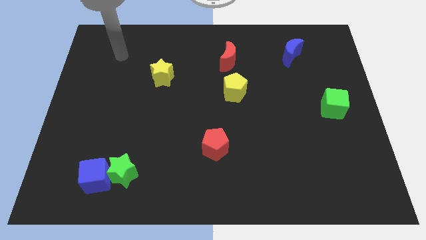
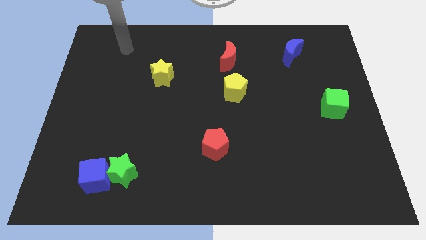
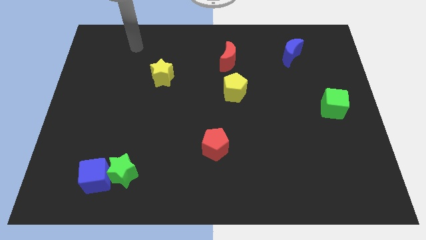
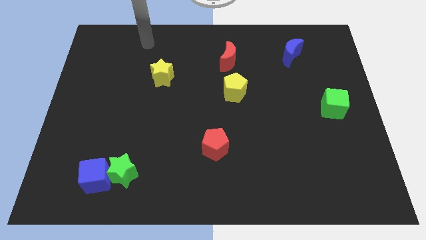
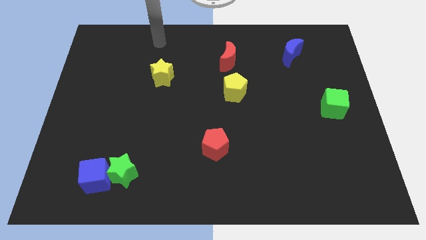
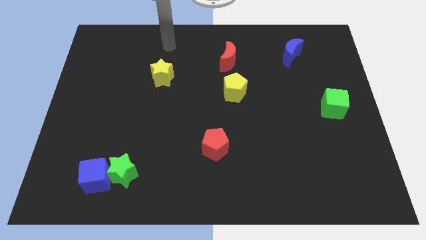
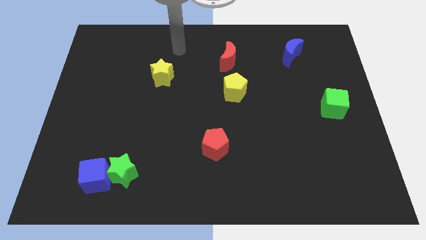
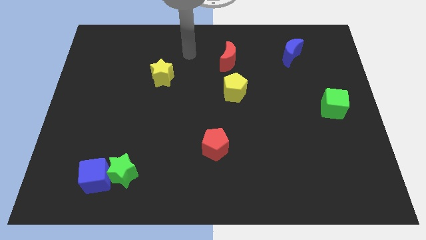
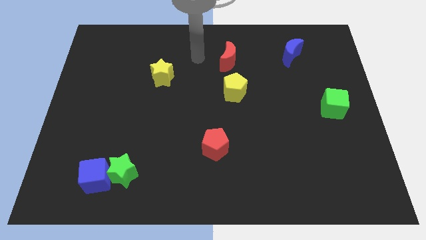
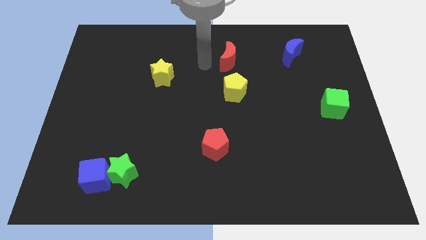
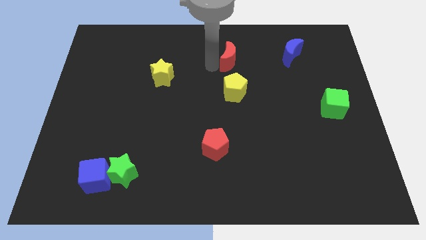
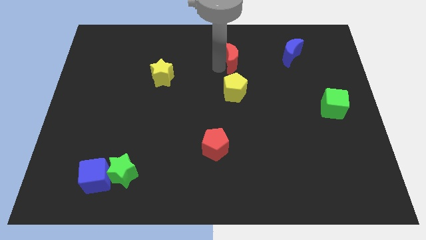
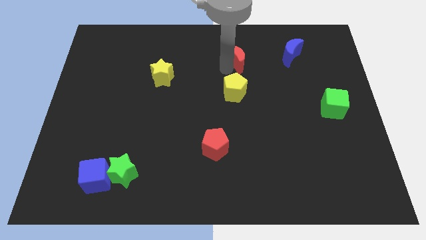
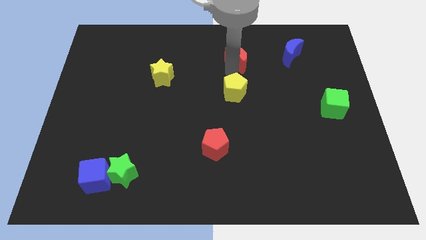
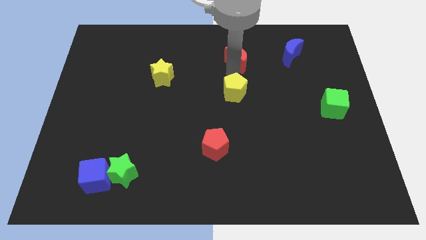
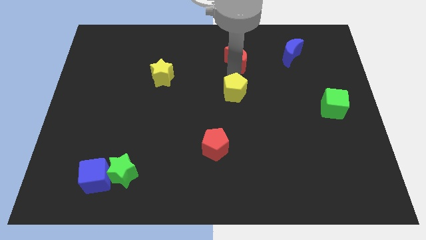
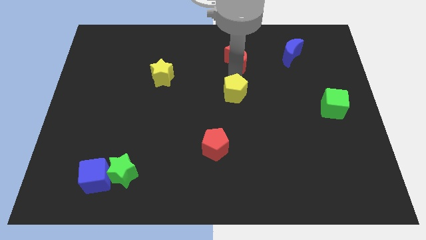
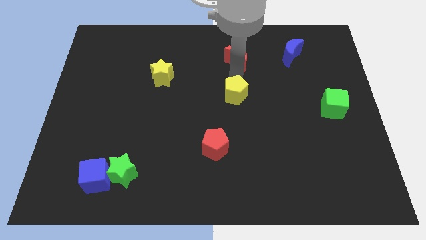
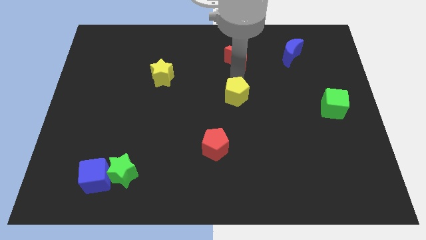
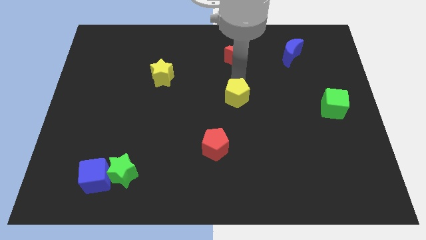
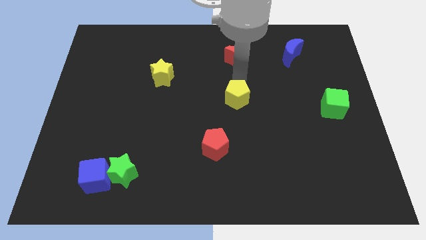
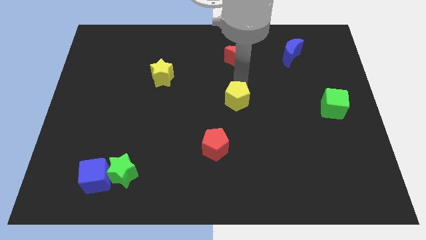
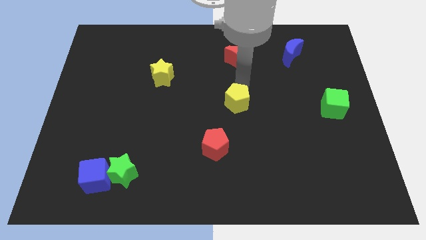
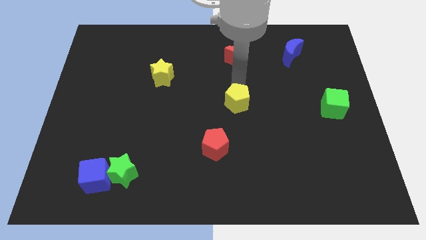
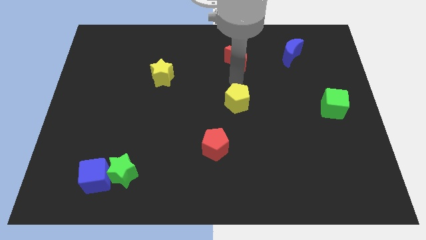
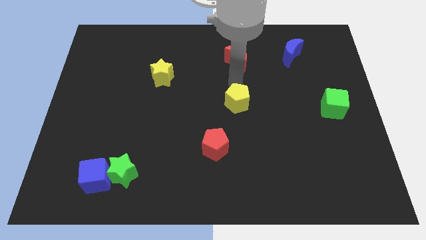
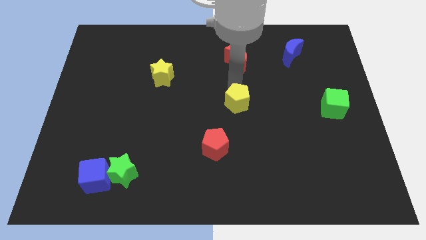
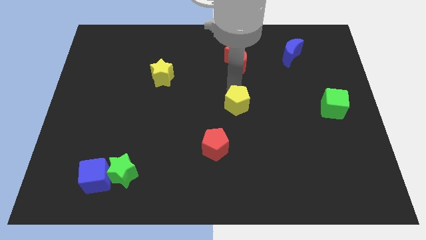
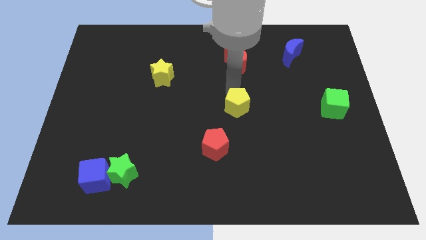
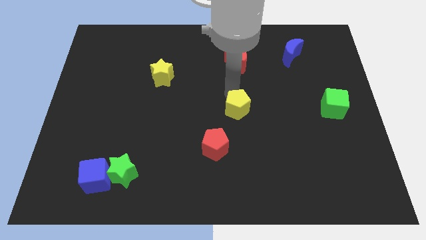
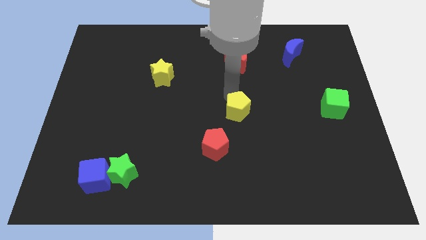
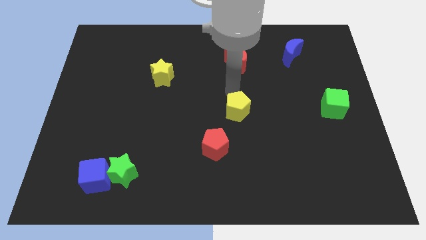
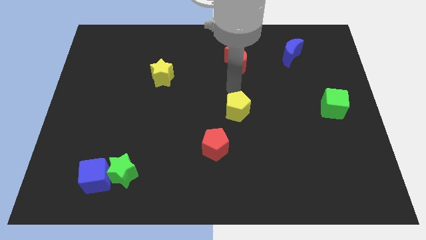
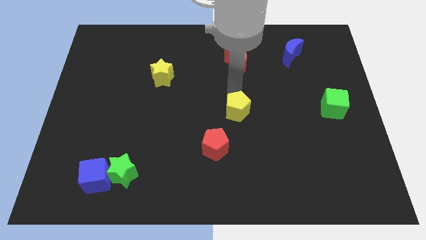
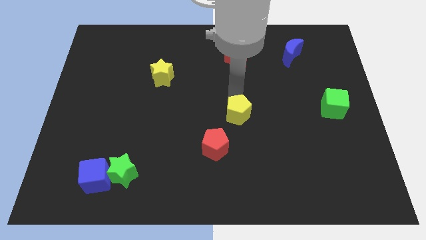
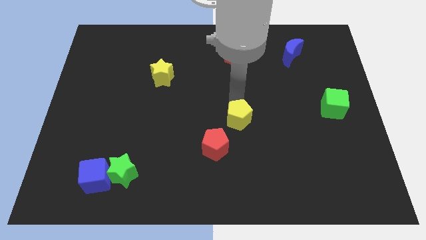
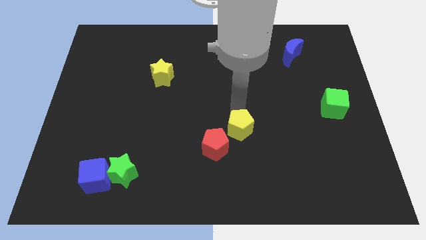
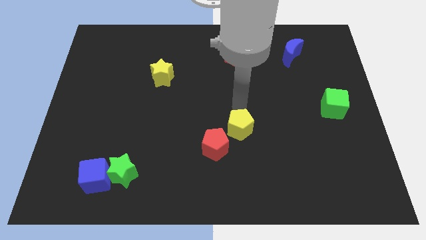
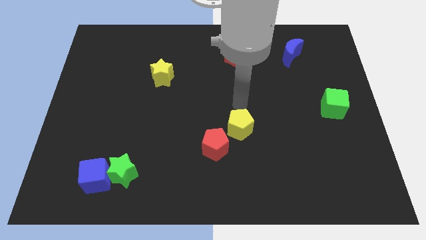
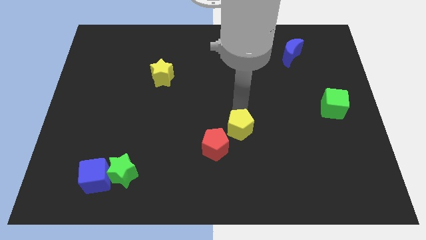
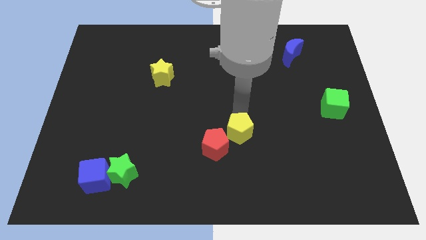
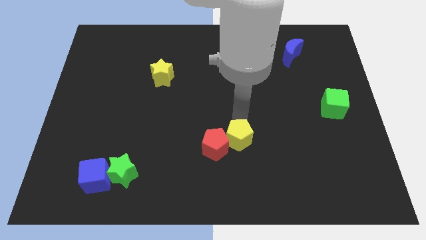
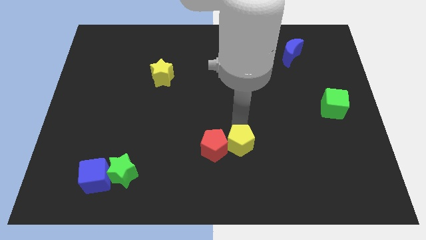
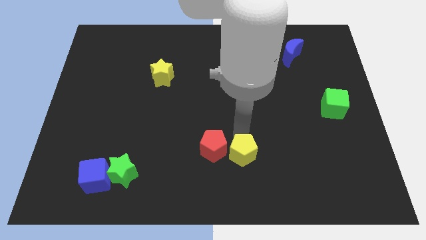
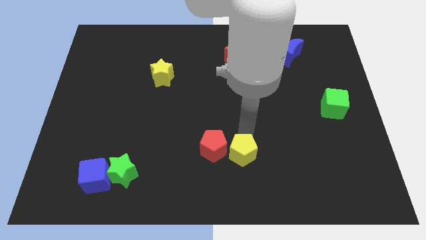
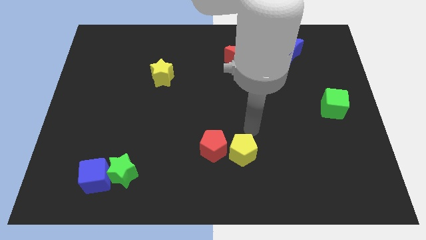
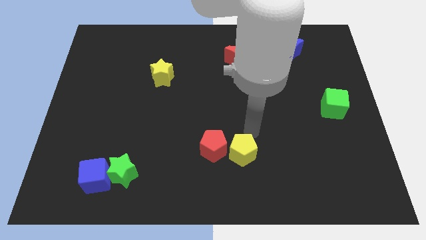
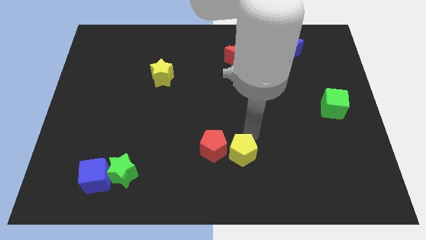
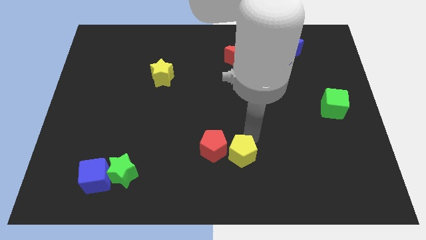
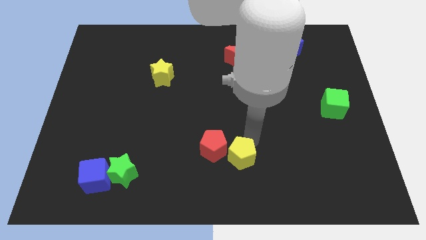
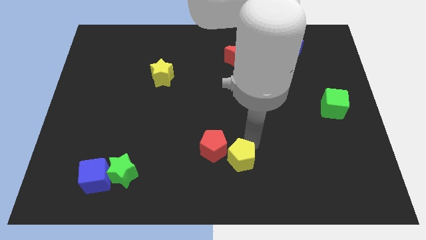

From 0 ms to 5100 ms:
put the yellow pentagon to the bottom

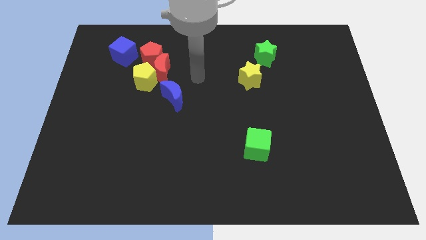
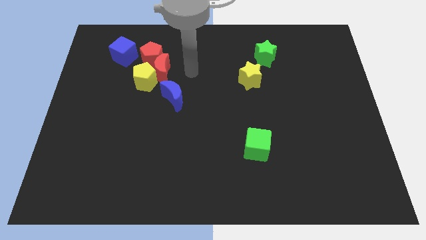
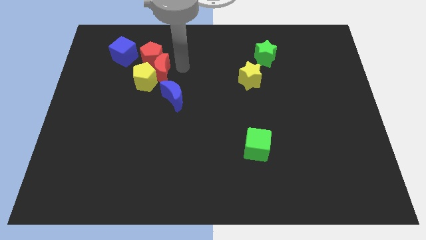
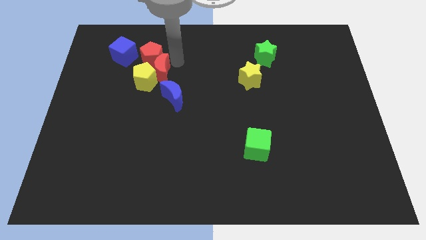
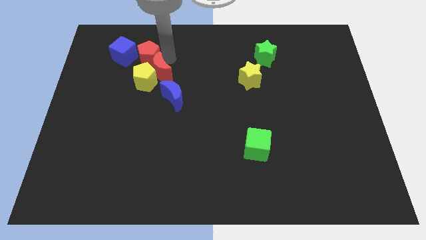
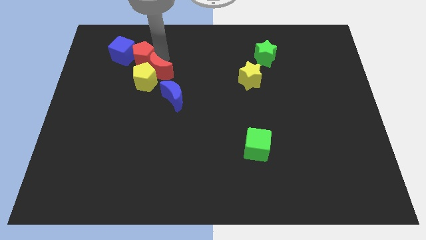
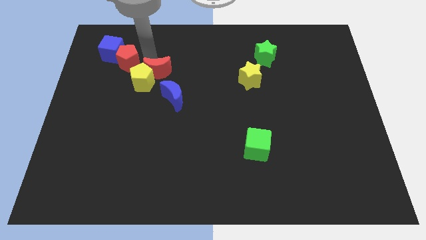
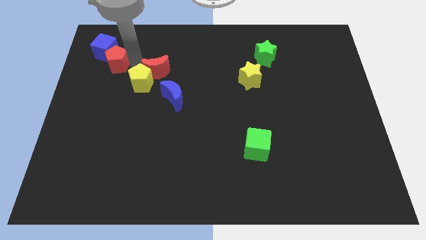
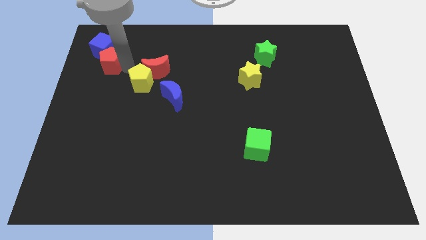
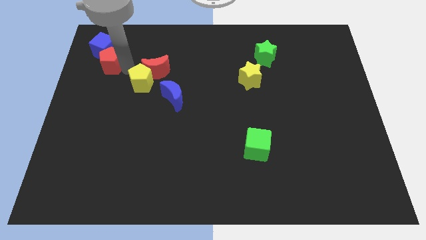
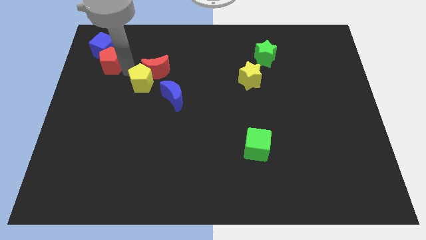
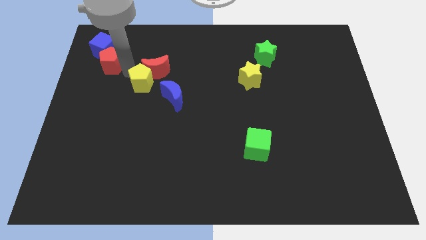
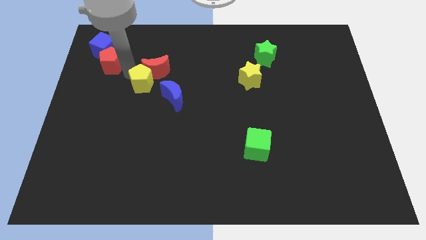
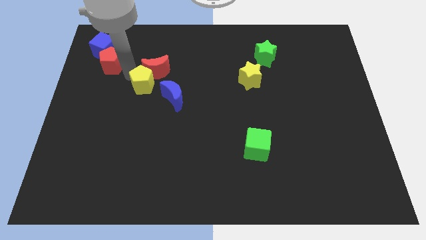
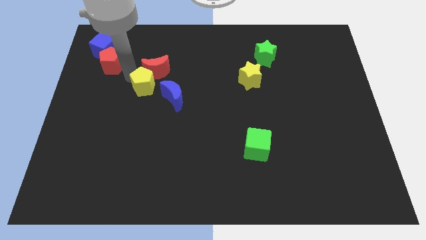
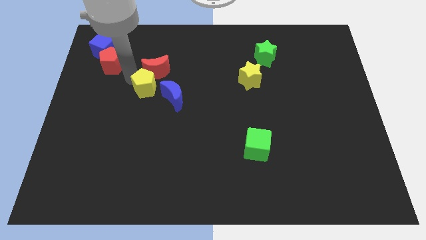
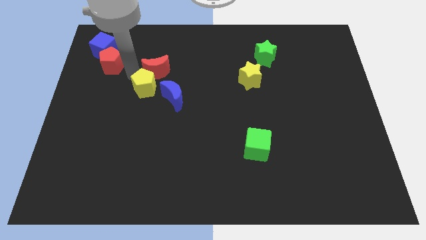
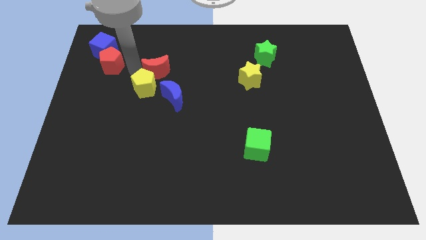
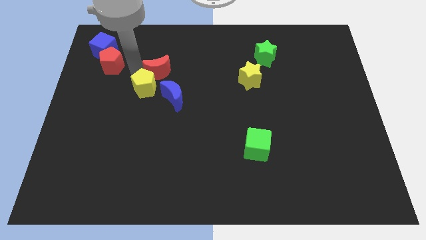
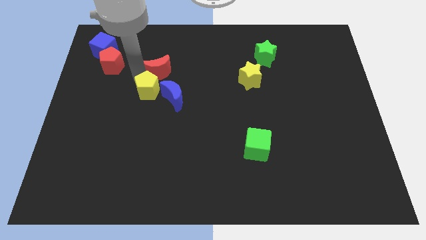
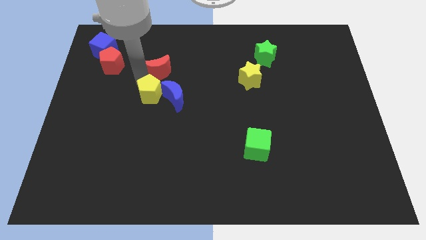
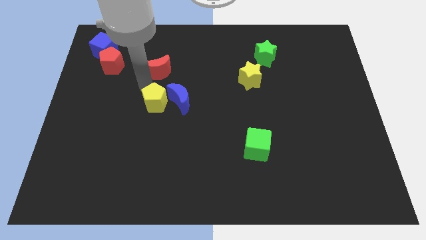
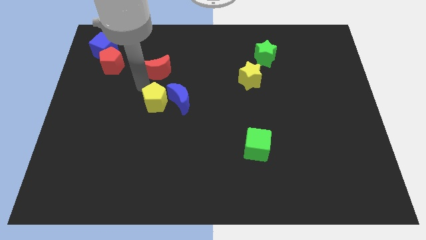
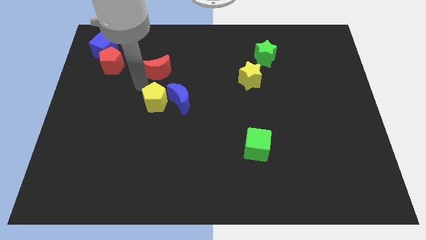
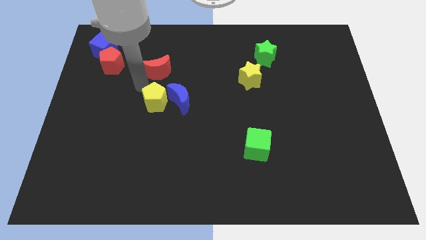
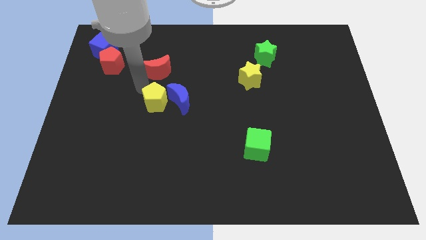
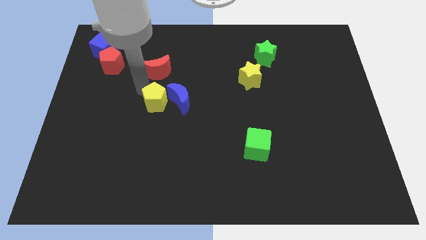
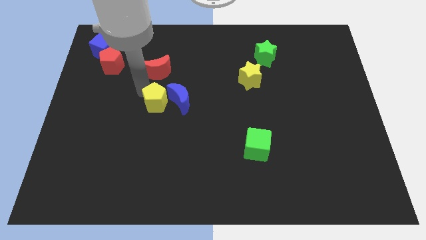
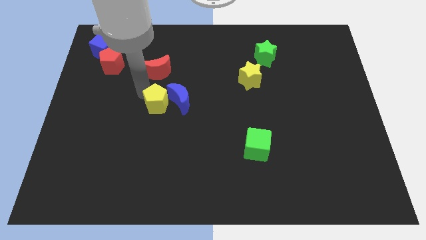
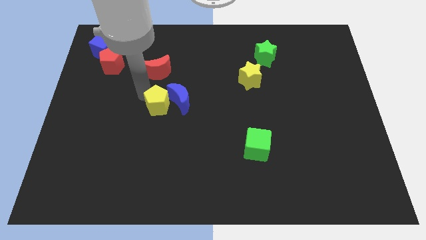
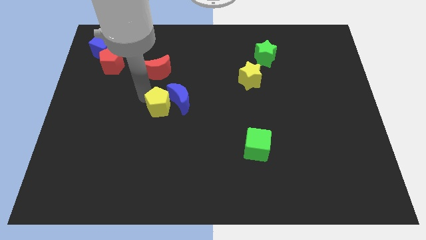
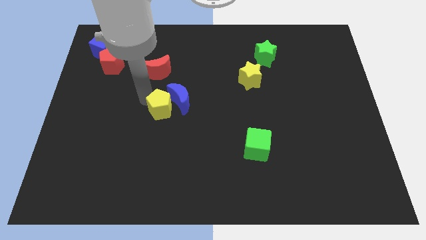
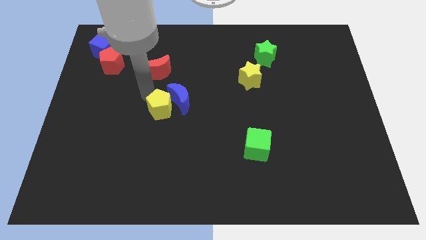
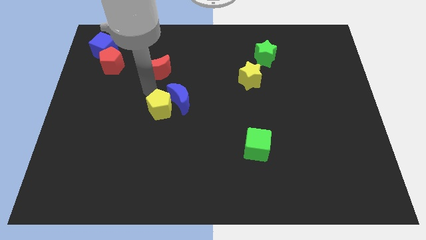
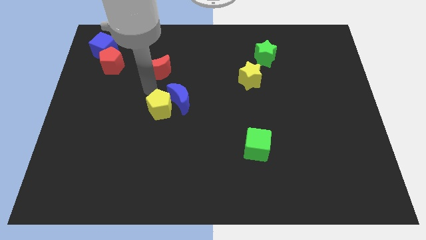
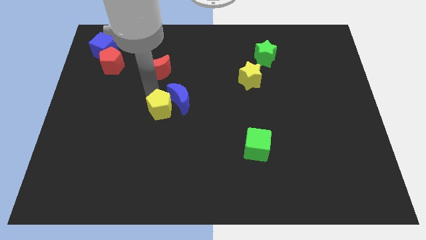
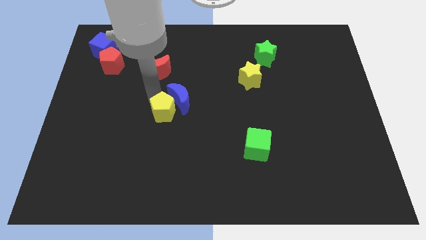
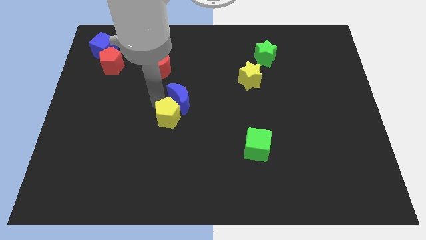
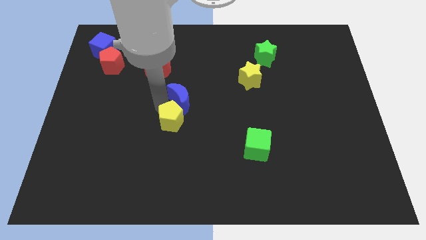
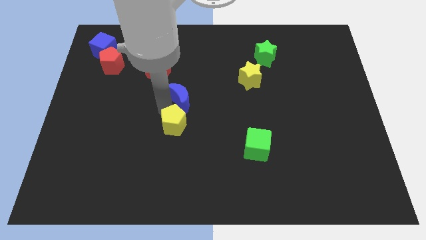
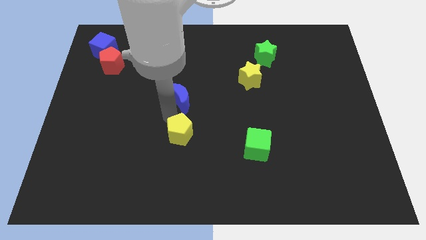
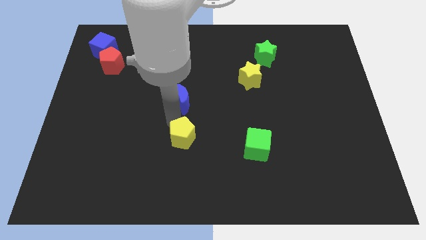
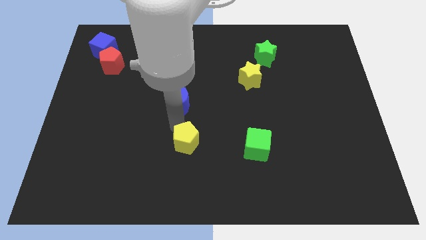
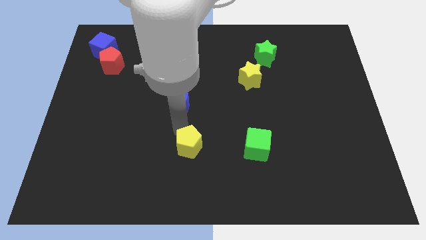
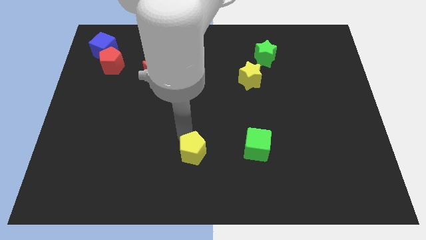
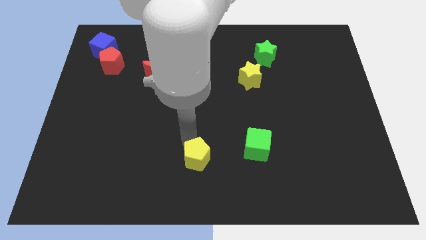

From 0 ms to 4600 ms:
slide the yellow pentagon to the bottom
